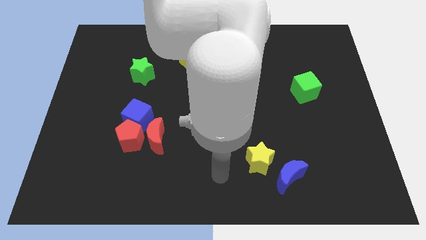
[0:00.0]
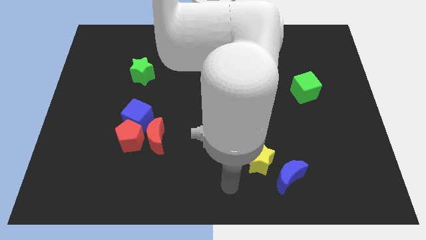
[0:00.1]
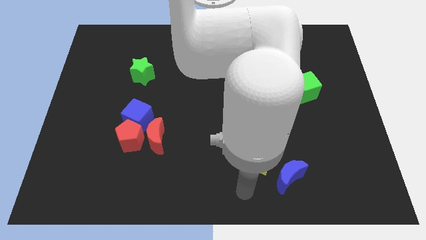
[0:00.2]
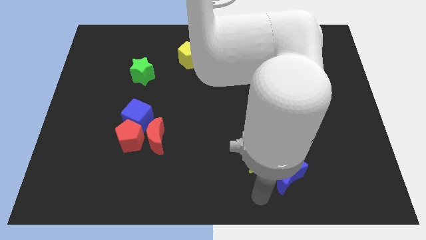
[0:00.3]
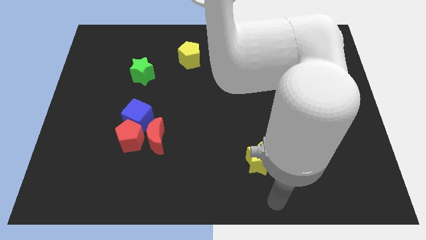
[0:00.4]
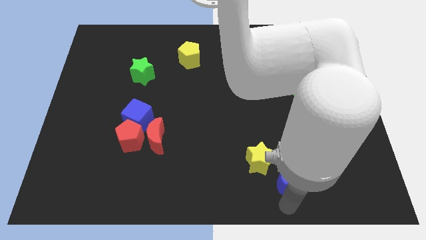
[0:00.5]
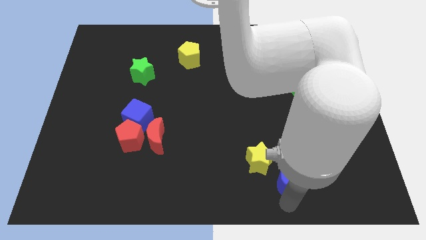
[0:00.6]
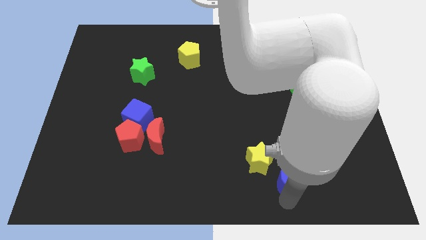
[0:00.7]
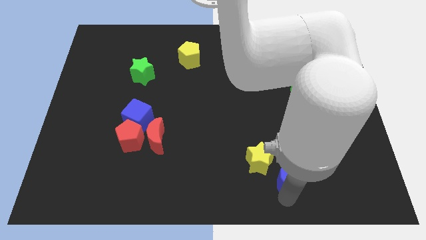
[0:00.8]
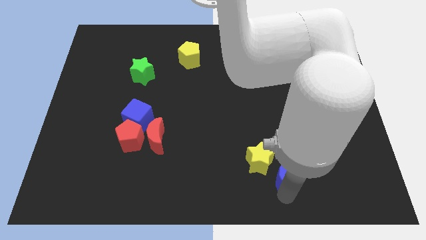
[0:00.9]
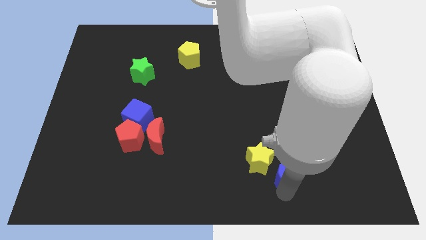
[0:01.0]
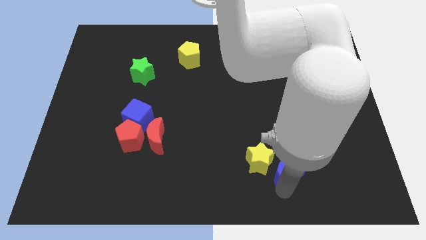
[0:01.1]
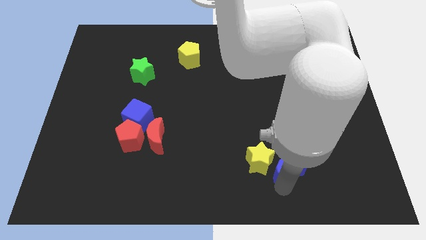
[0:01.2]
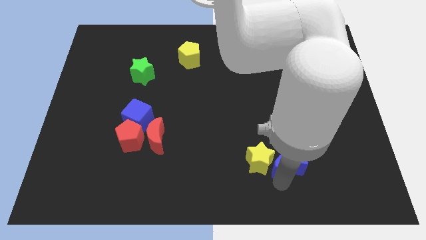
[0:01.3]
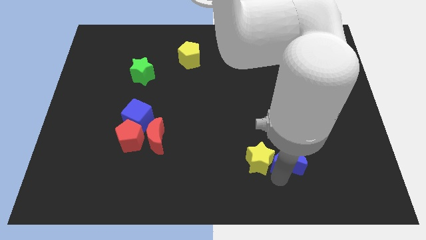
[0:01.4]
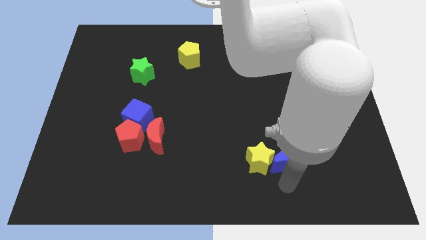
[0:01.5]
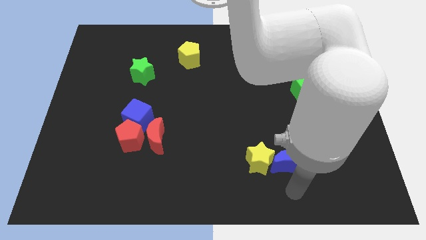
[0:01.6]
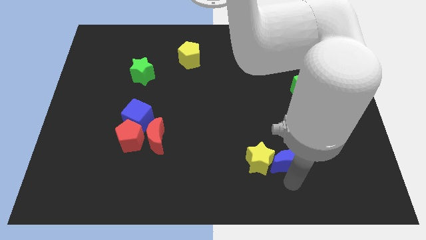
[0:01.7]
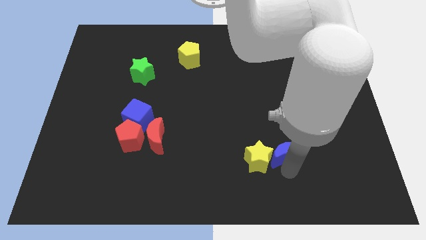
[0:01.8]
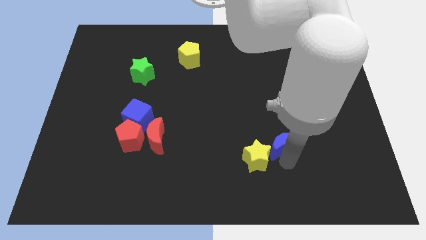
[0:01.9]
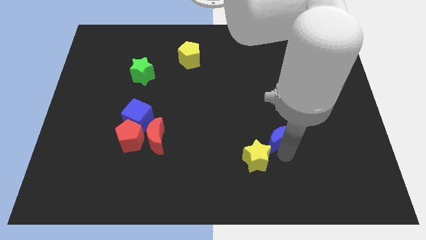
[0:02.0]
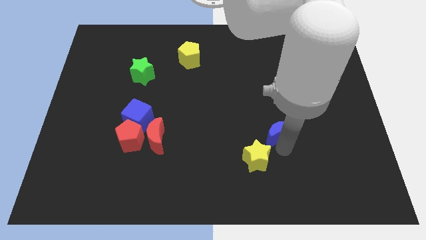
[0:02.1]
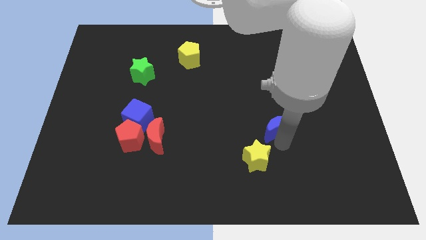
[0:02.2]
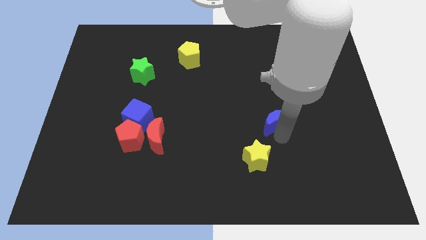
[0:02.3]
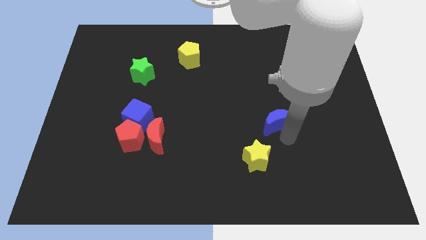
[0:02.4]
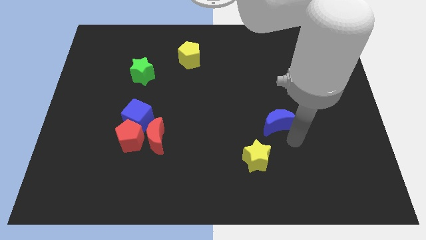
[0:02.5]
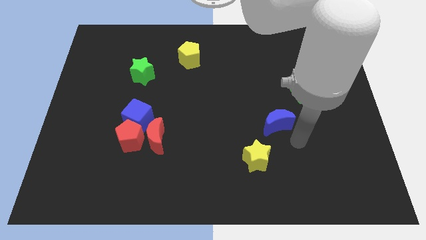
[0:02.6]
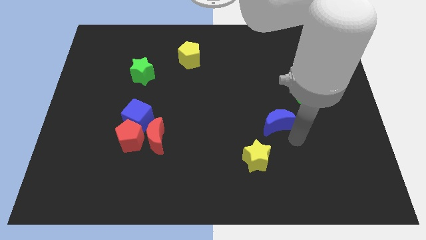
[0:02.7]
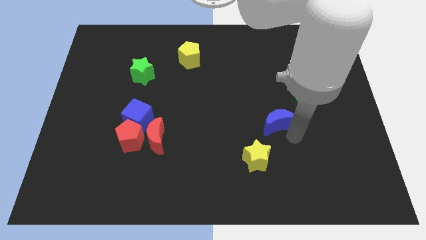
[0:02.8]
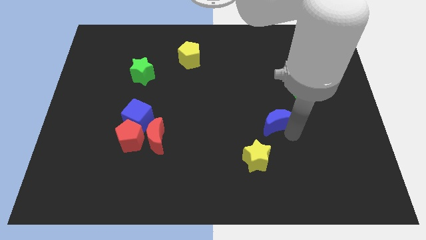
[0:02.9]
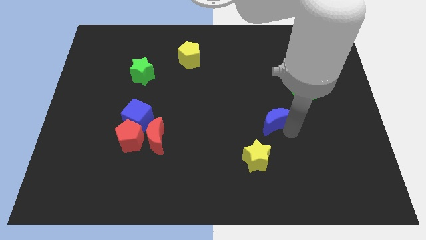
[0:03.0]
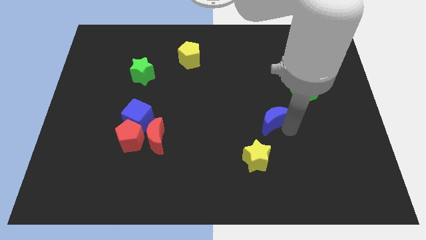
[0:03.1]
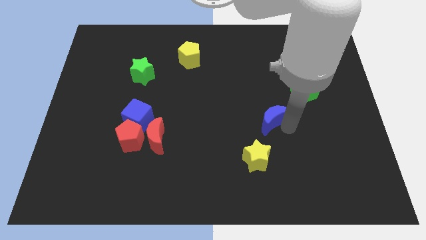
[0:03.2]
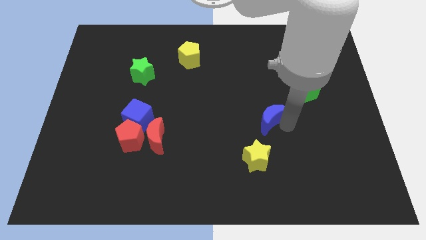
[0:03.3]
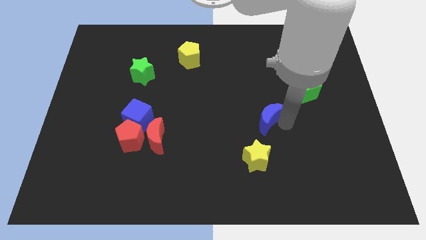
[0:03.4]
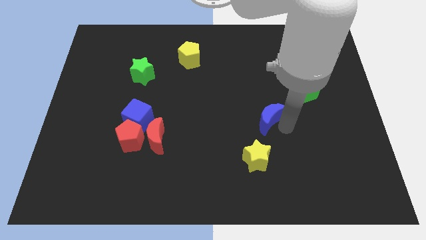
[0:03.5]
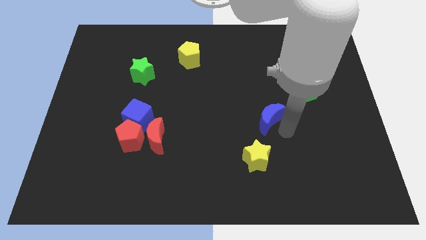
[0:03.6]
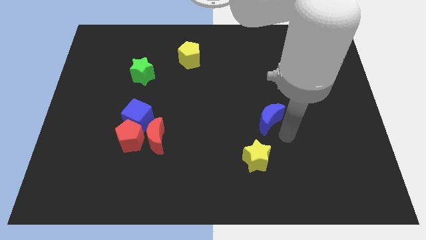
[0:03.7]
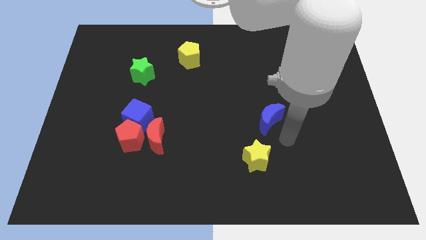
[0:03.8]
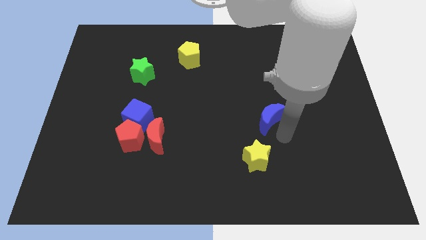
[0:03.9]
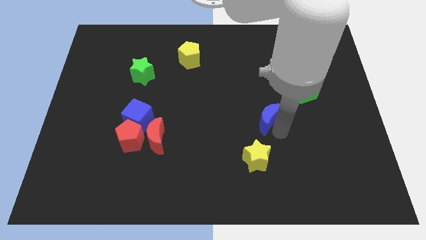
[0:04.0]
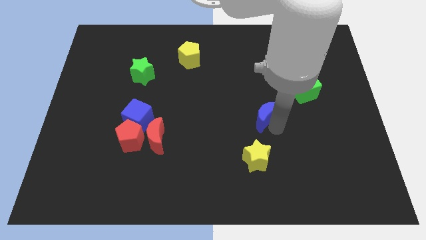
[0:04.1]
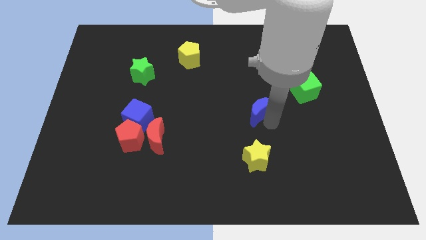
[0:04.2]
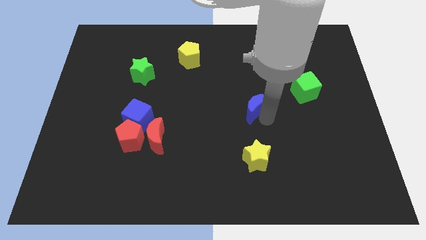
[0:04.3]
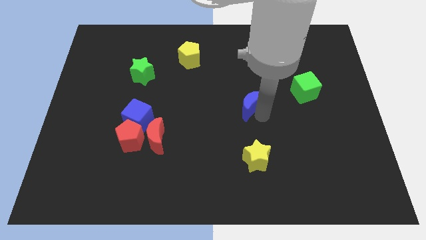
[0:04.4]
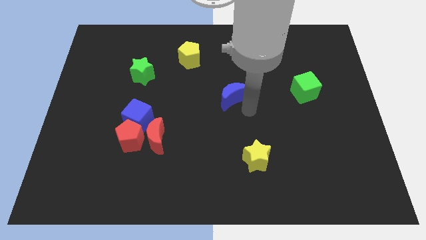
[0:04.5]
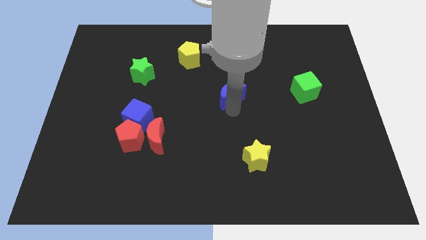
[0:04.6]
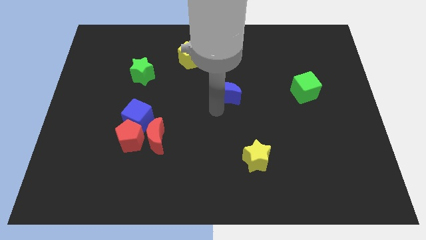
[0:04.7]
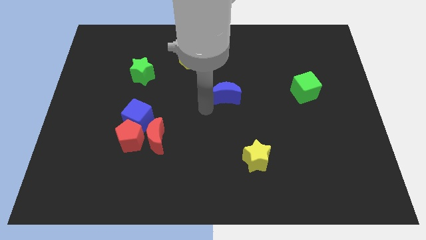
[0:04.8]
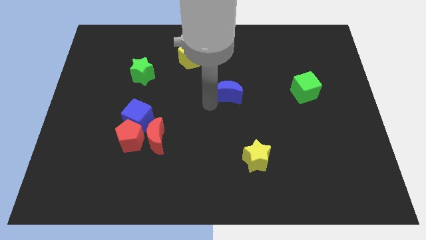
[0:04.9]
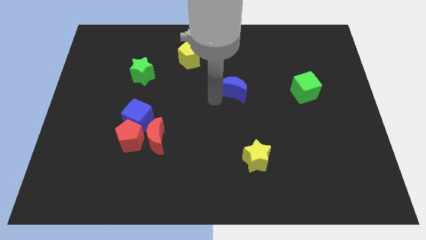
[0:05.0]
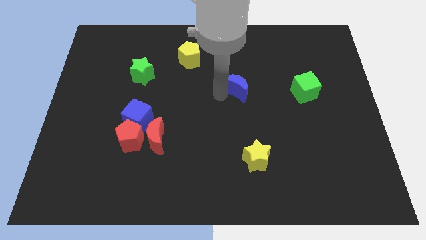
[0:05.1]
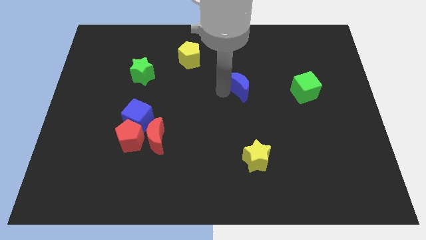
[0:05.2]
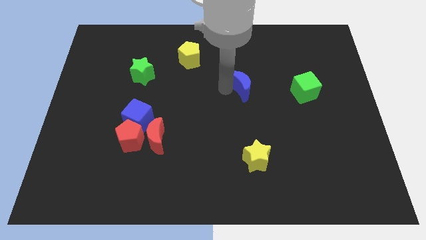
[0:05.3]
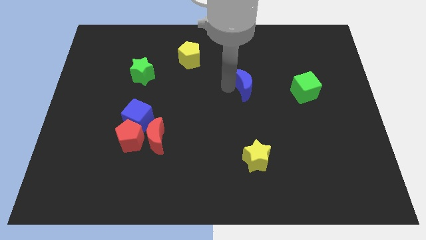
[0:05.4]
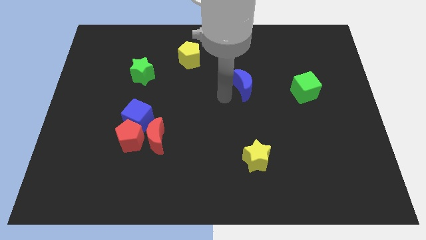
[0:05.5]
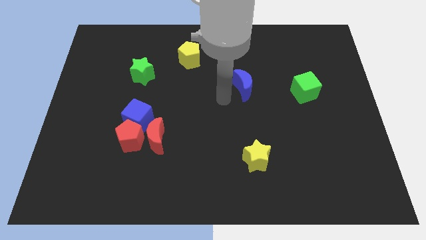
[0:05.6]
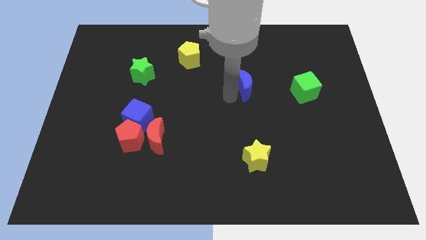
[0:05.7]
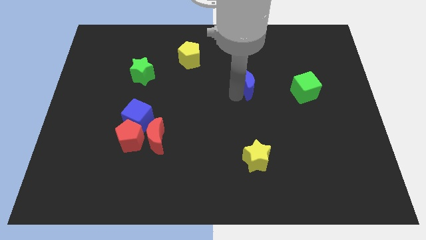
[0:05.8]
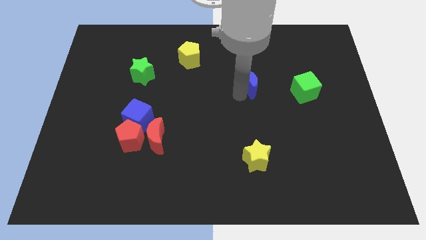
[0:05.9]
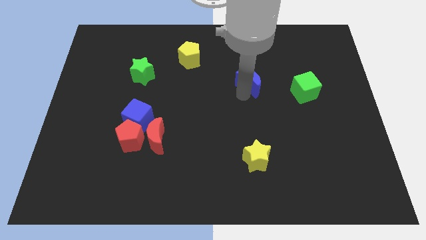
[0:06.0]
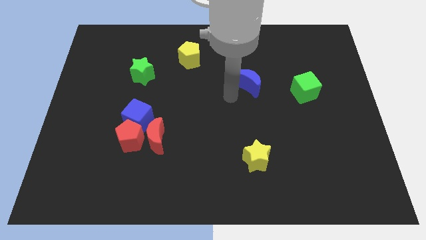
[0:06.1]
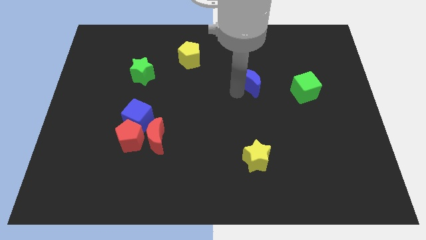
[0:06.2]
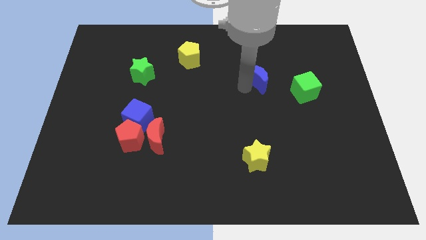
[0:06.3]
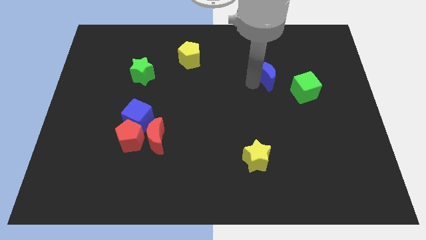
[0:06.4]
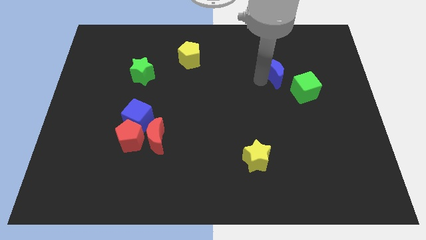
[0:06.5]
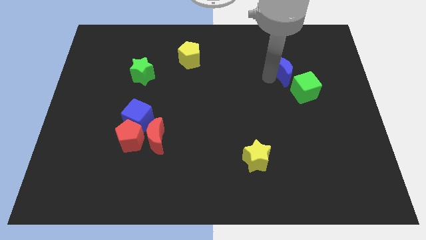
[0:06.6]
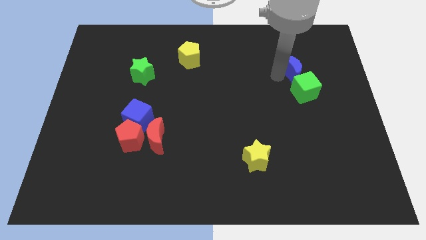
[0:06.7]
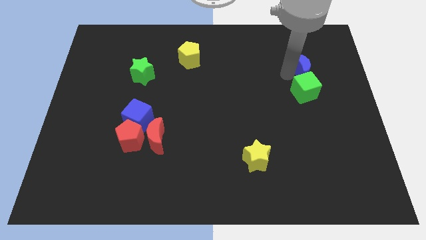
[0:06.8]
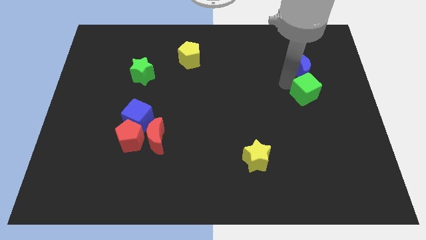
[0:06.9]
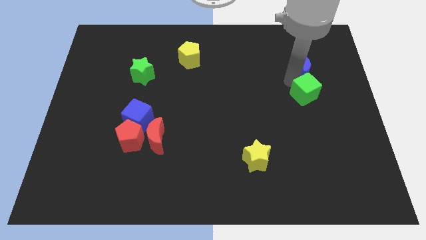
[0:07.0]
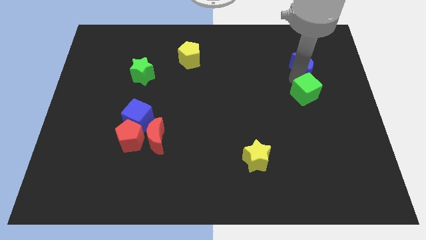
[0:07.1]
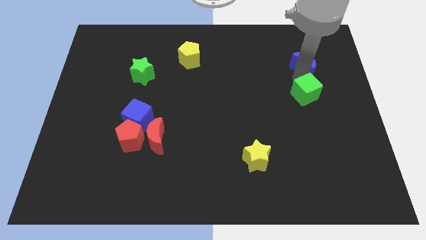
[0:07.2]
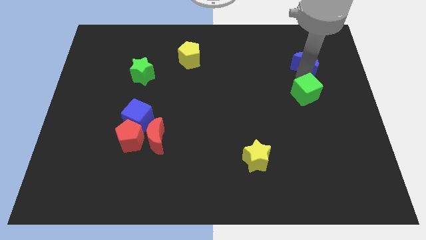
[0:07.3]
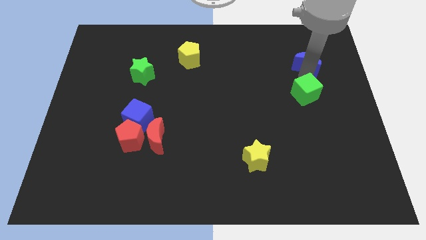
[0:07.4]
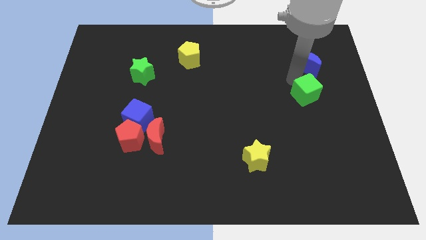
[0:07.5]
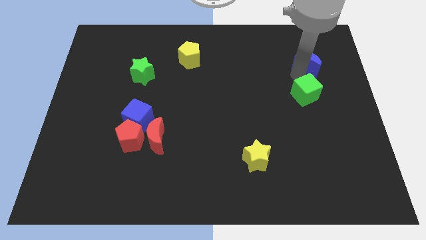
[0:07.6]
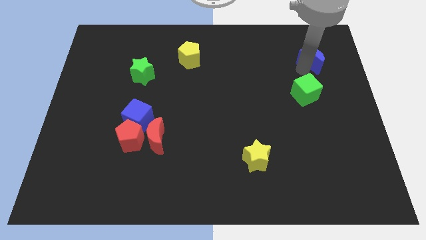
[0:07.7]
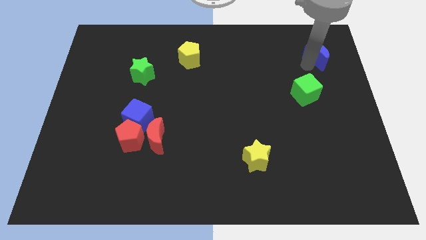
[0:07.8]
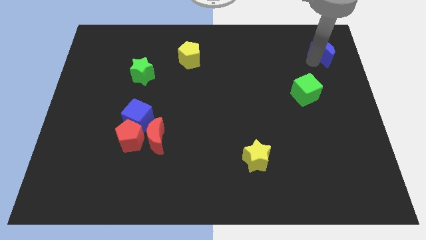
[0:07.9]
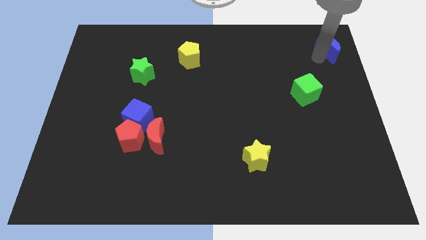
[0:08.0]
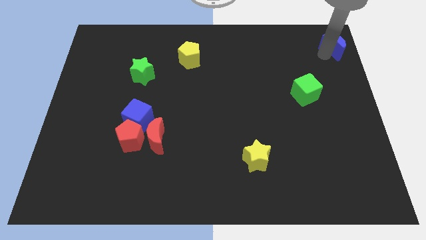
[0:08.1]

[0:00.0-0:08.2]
slide the blue moon to the top right
